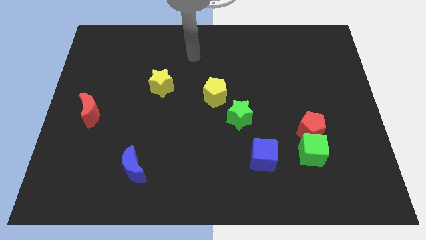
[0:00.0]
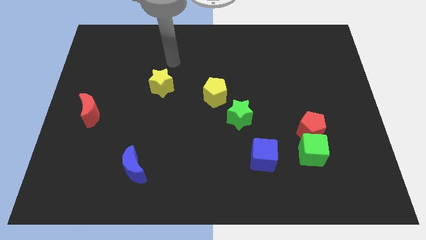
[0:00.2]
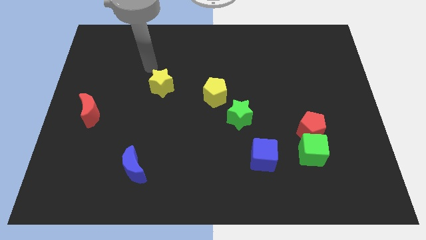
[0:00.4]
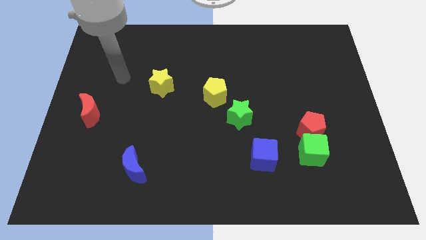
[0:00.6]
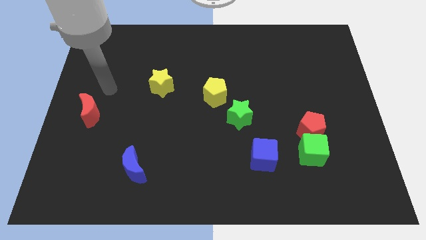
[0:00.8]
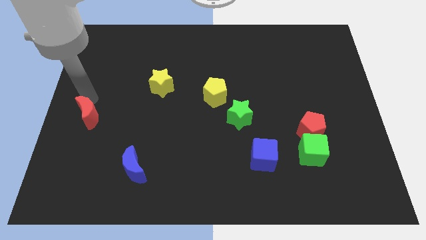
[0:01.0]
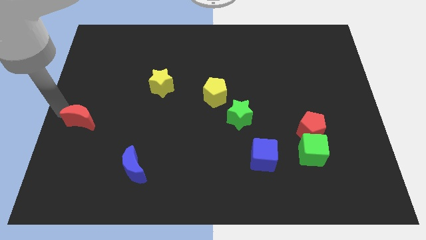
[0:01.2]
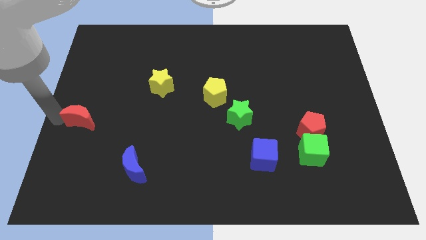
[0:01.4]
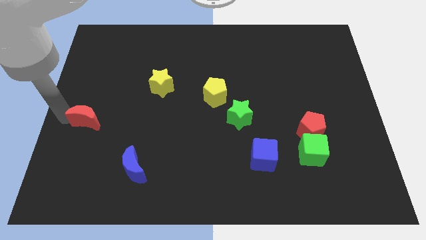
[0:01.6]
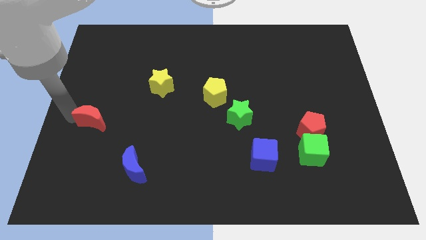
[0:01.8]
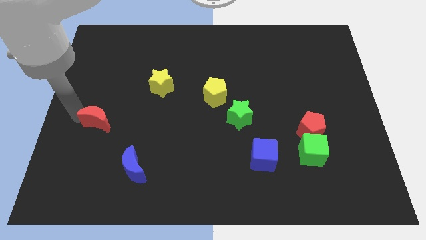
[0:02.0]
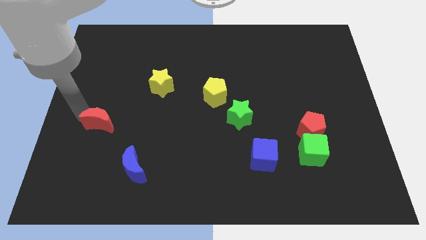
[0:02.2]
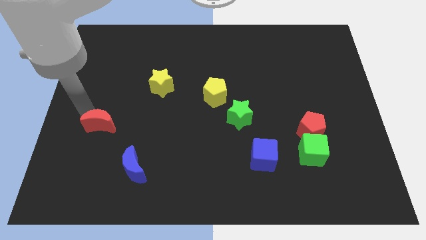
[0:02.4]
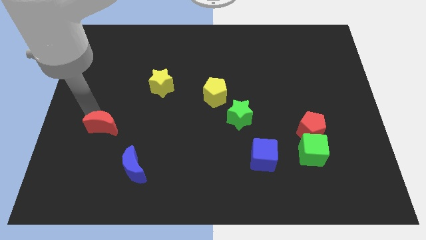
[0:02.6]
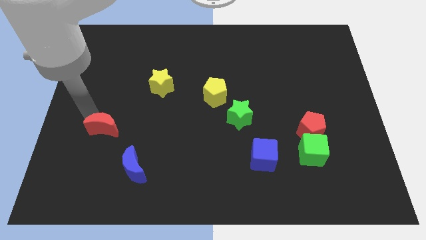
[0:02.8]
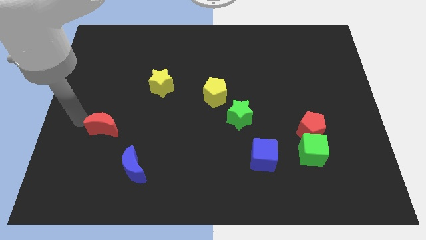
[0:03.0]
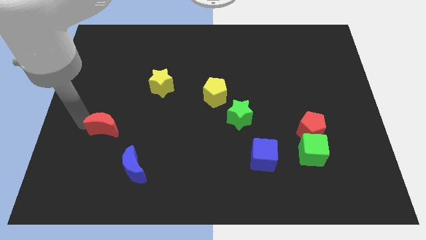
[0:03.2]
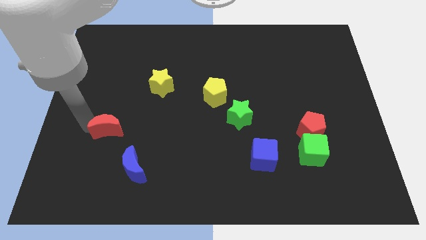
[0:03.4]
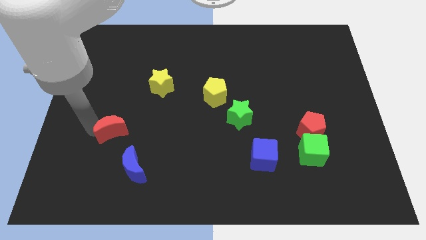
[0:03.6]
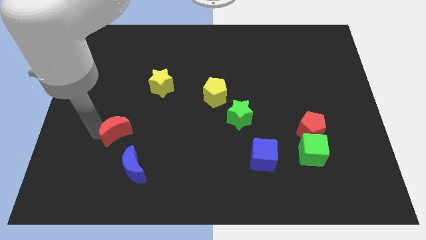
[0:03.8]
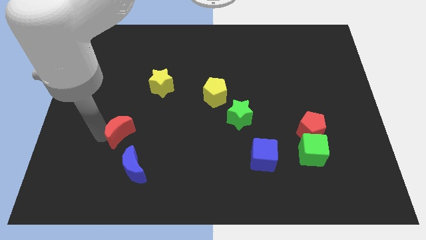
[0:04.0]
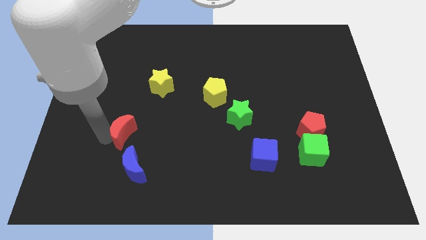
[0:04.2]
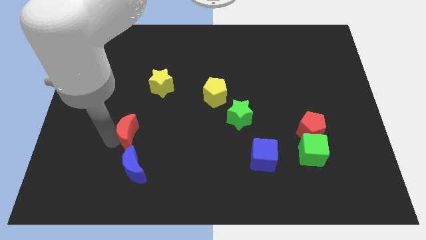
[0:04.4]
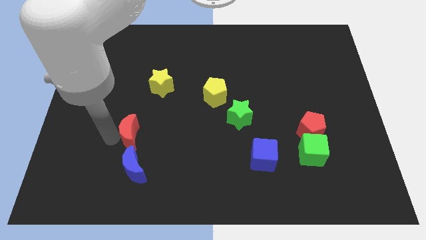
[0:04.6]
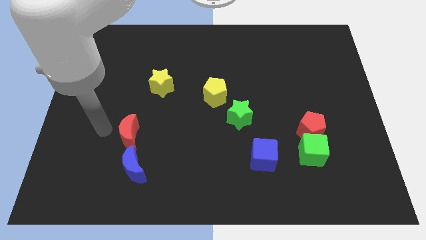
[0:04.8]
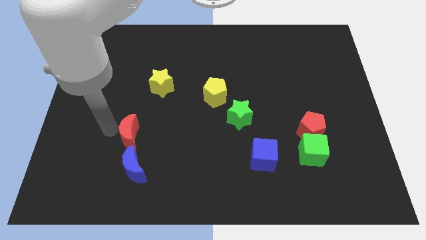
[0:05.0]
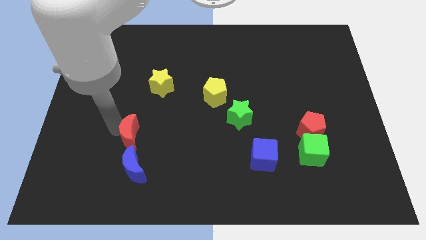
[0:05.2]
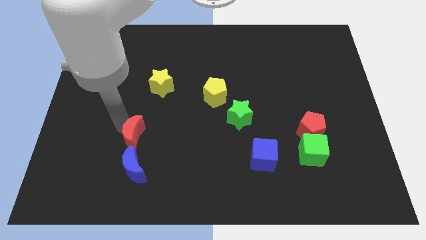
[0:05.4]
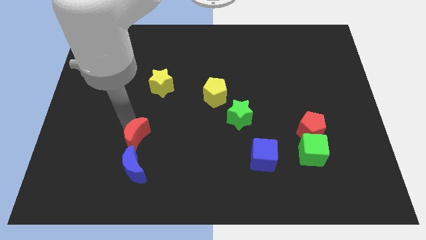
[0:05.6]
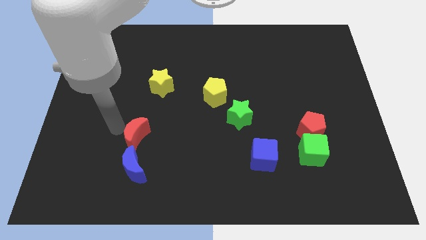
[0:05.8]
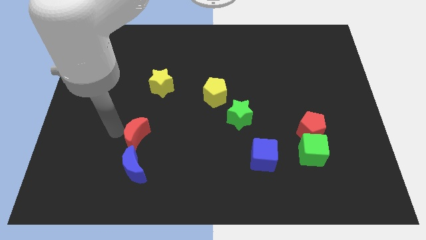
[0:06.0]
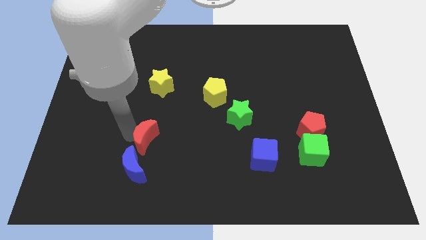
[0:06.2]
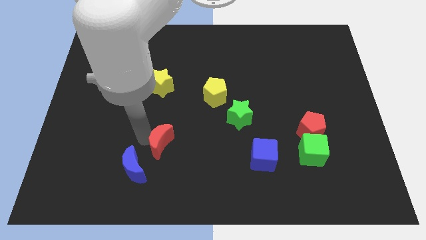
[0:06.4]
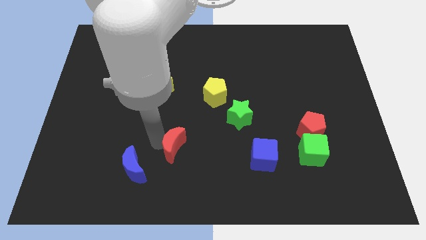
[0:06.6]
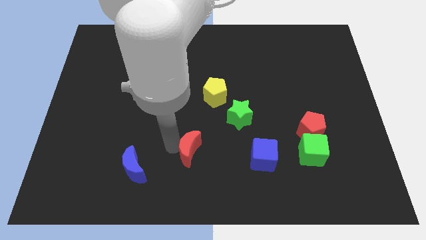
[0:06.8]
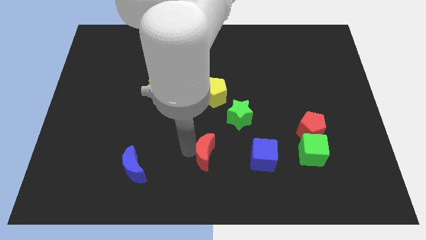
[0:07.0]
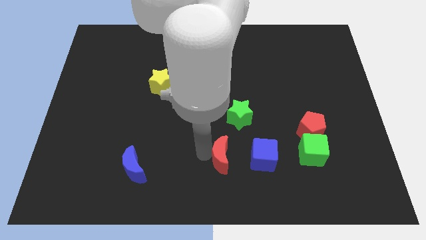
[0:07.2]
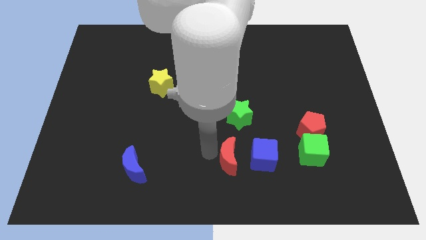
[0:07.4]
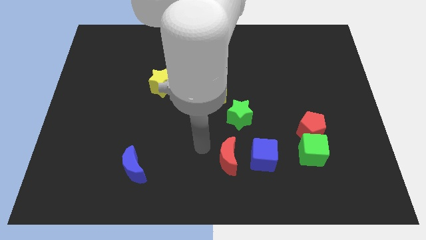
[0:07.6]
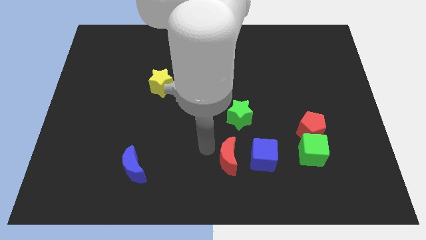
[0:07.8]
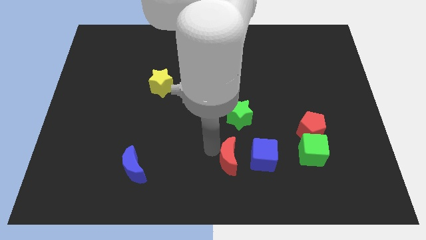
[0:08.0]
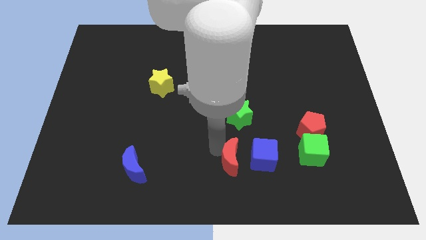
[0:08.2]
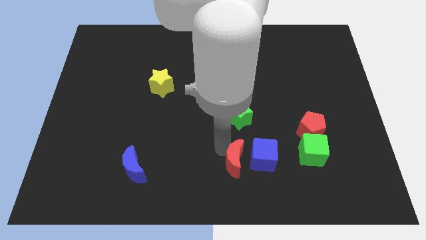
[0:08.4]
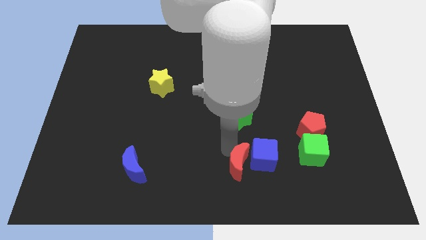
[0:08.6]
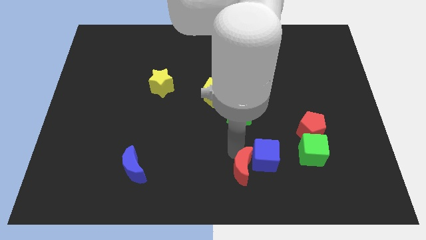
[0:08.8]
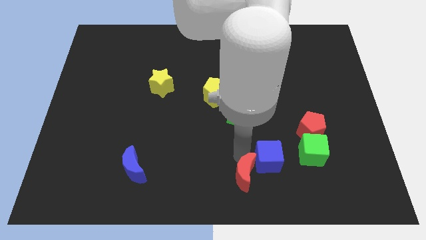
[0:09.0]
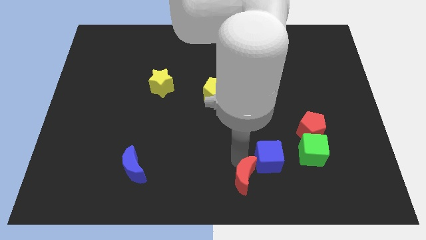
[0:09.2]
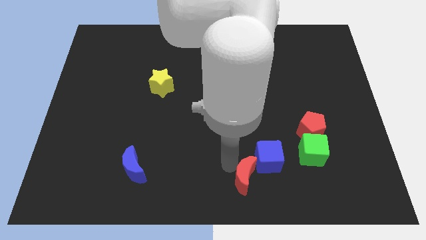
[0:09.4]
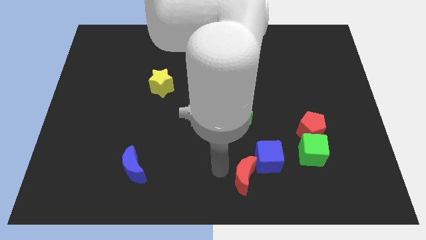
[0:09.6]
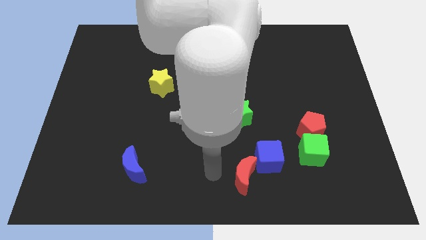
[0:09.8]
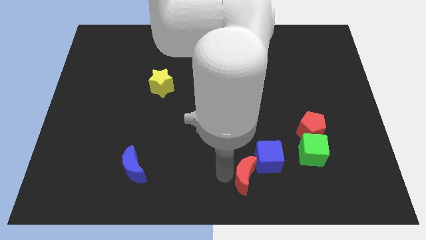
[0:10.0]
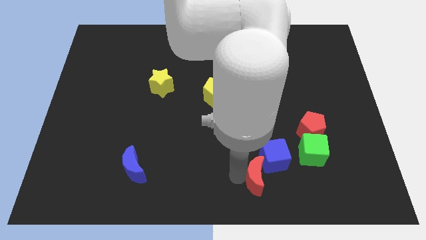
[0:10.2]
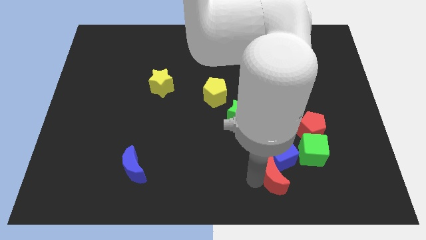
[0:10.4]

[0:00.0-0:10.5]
move the red moon to the bottom left side of the green cube
